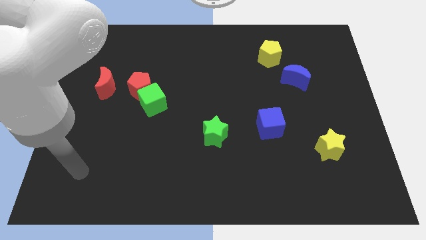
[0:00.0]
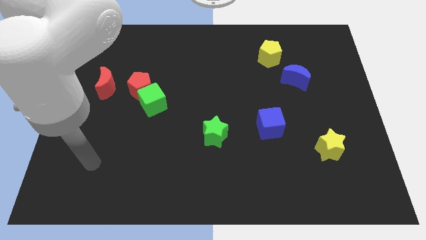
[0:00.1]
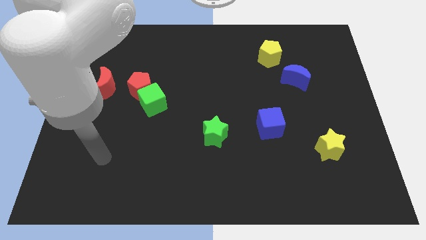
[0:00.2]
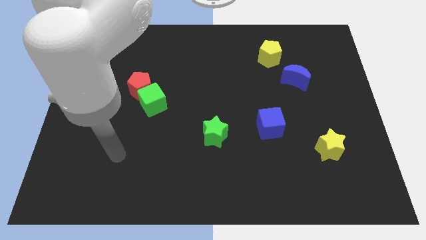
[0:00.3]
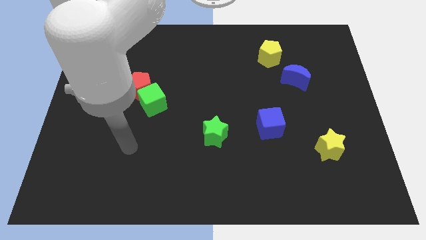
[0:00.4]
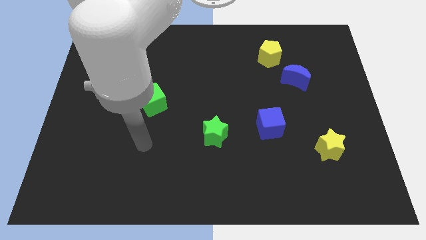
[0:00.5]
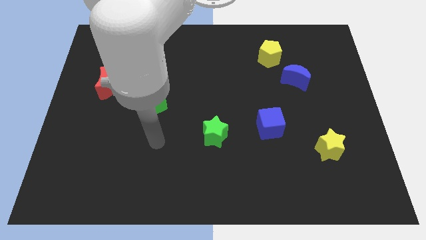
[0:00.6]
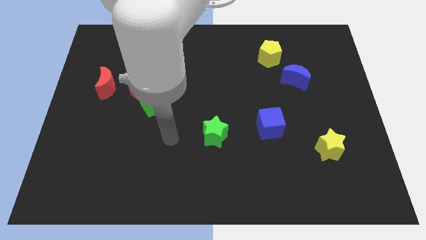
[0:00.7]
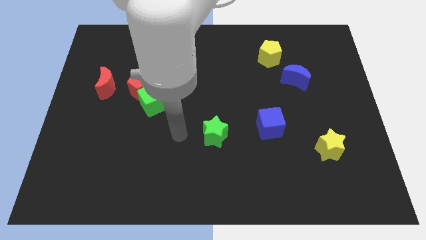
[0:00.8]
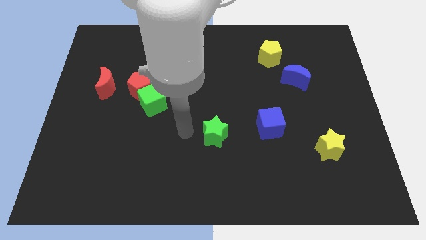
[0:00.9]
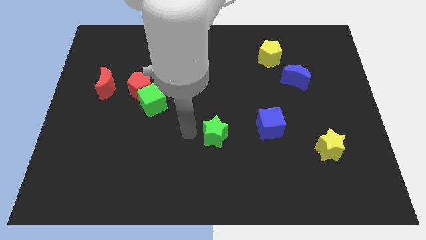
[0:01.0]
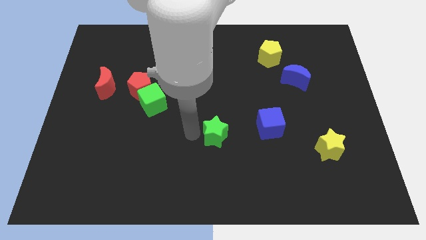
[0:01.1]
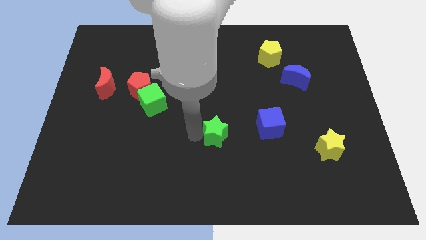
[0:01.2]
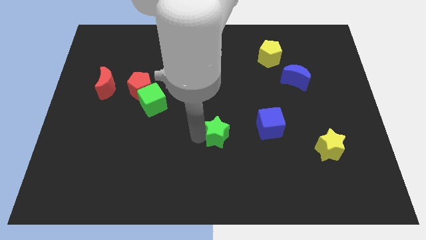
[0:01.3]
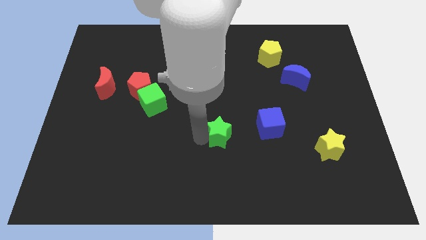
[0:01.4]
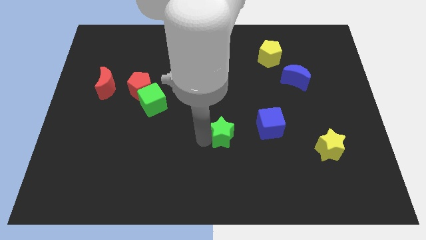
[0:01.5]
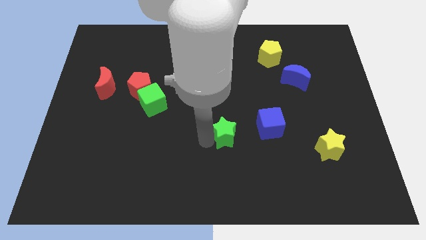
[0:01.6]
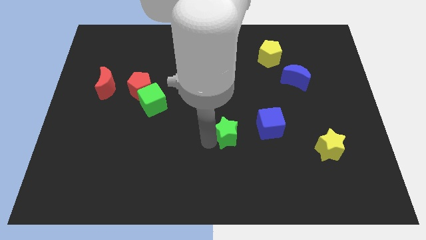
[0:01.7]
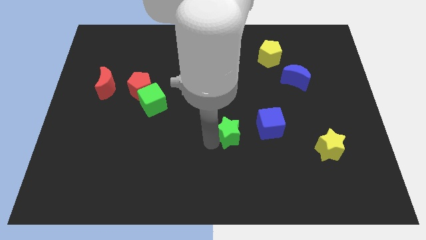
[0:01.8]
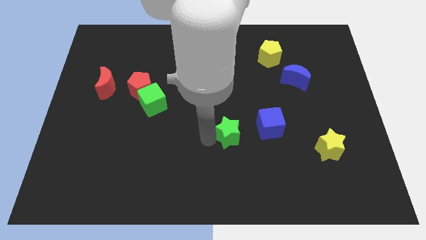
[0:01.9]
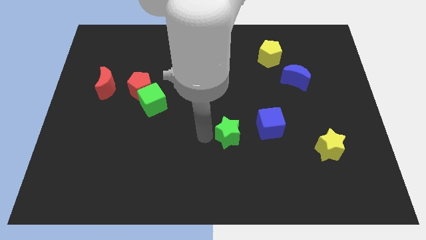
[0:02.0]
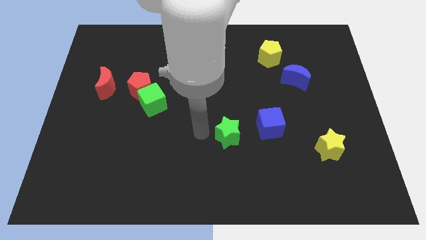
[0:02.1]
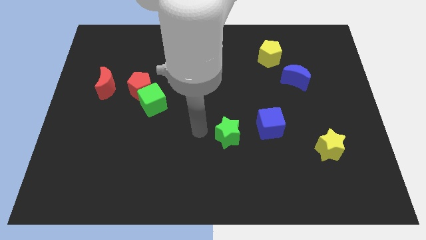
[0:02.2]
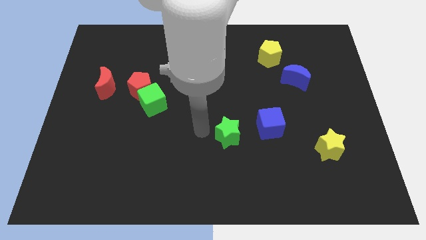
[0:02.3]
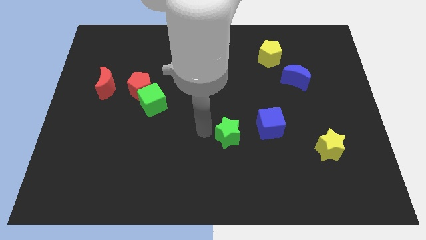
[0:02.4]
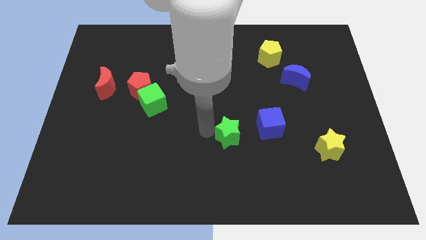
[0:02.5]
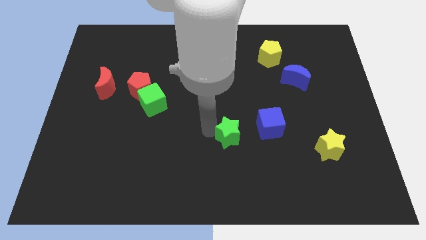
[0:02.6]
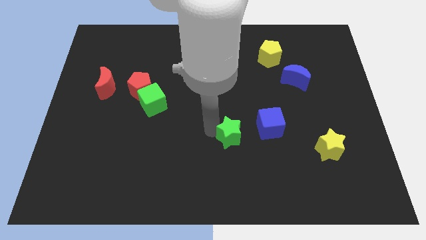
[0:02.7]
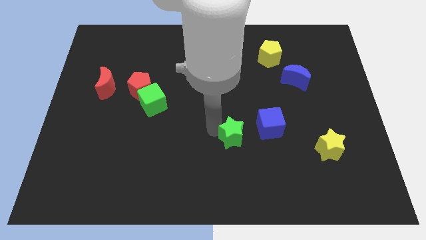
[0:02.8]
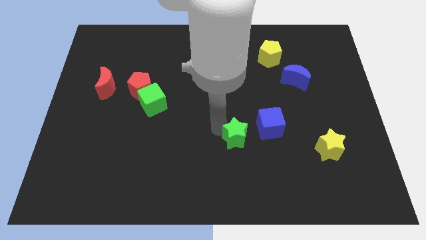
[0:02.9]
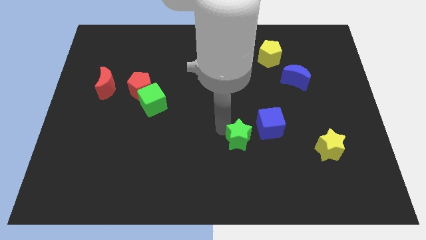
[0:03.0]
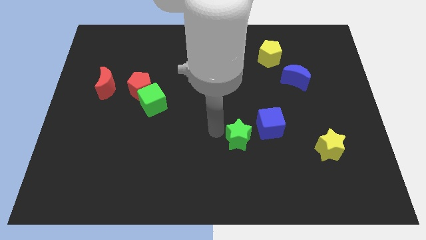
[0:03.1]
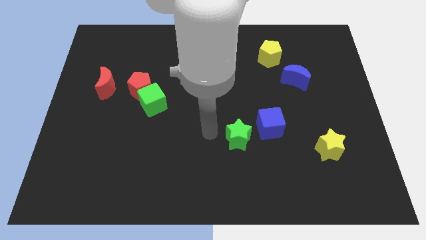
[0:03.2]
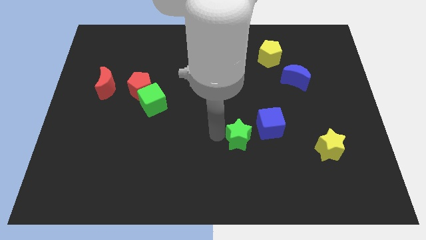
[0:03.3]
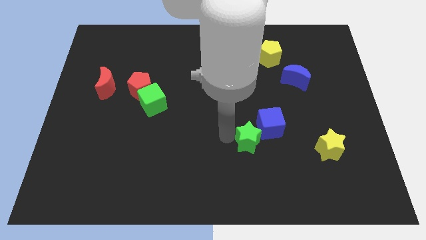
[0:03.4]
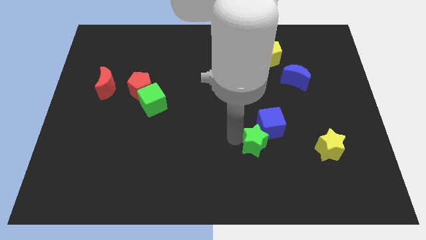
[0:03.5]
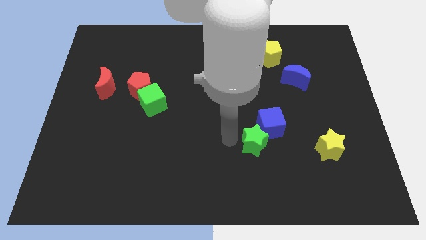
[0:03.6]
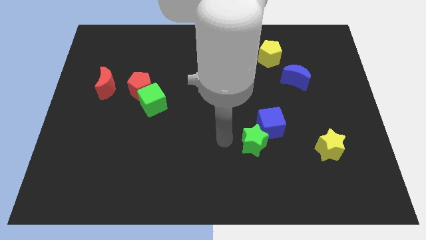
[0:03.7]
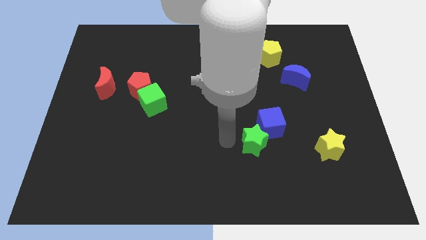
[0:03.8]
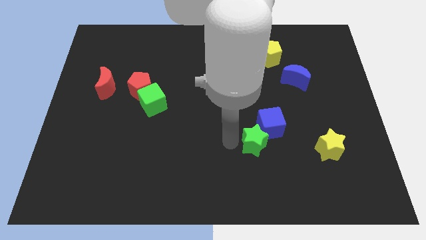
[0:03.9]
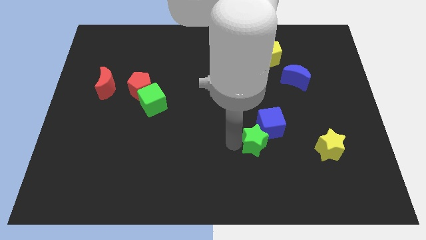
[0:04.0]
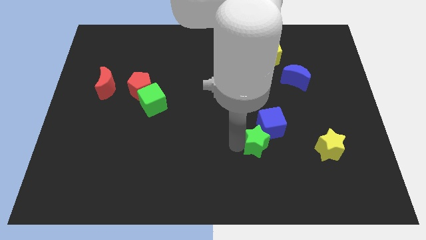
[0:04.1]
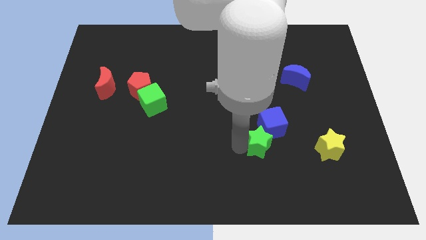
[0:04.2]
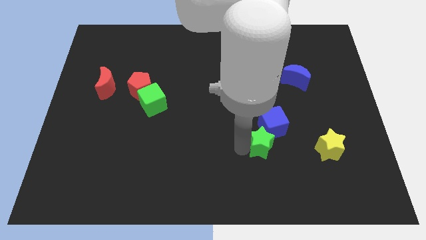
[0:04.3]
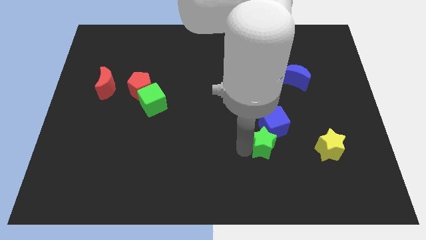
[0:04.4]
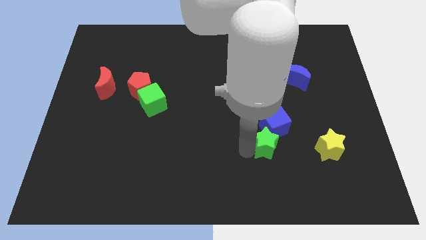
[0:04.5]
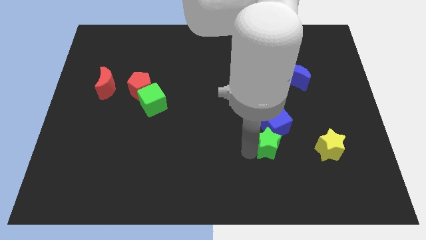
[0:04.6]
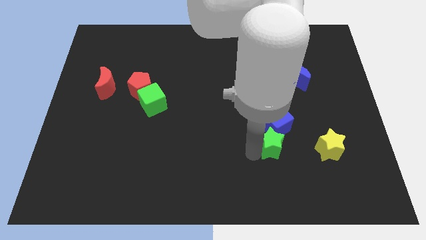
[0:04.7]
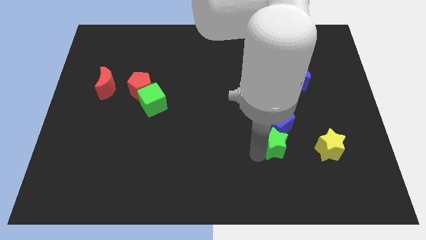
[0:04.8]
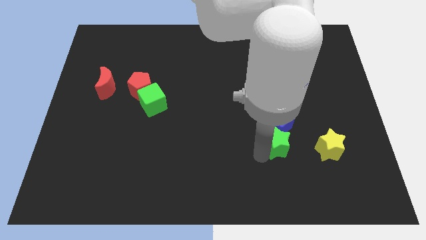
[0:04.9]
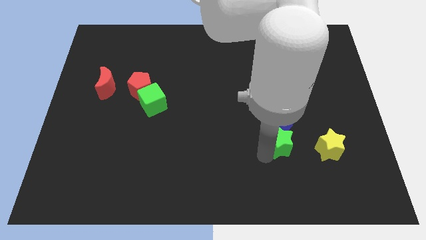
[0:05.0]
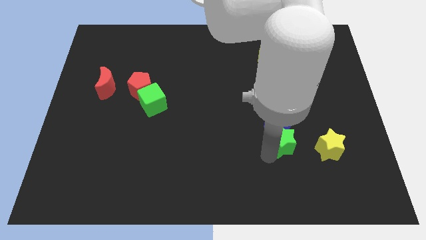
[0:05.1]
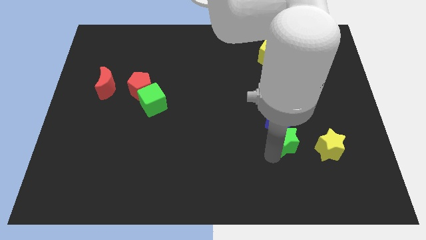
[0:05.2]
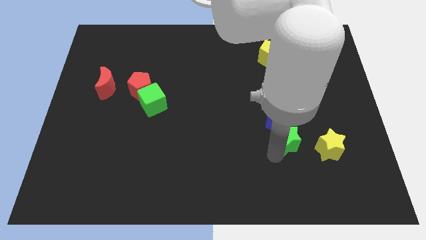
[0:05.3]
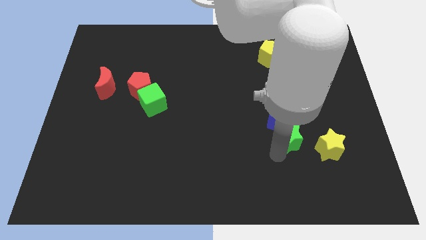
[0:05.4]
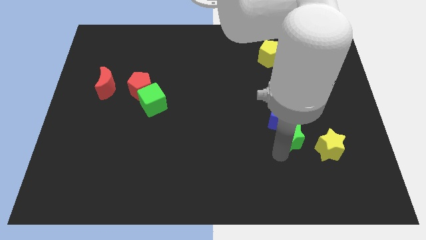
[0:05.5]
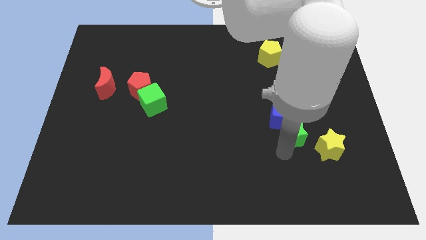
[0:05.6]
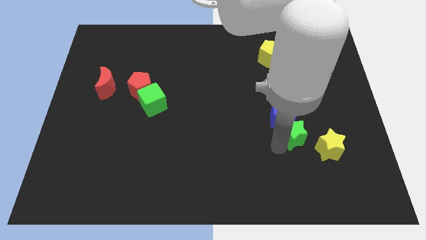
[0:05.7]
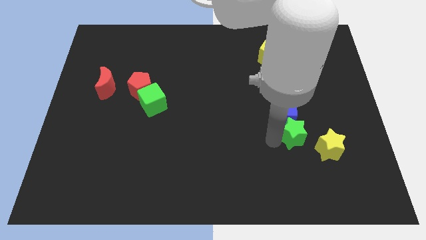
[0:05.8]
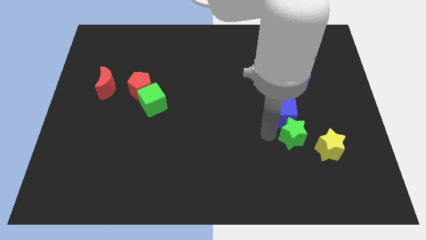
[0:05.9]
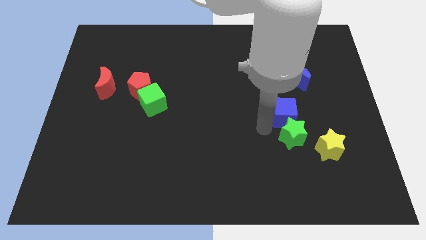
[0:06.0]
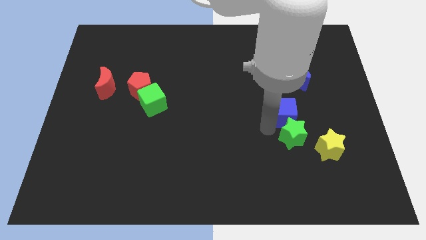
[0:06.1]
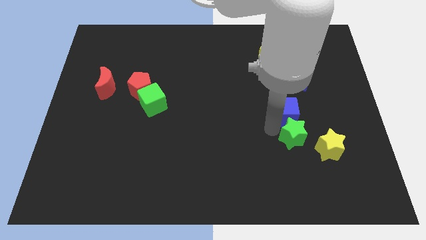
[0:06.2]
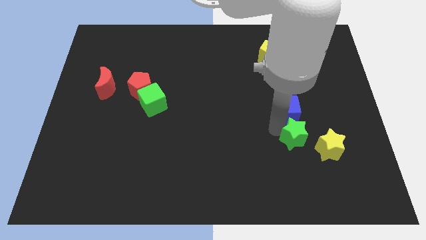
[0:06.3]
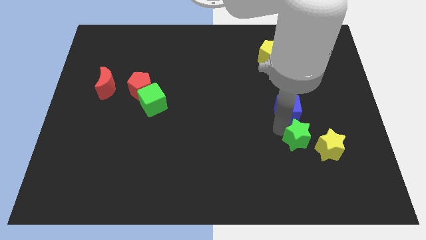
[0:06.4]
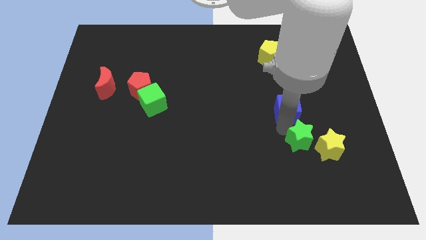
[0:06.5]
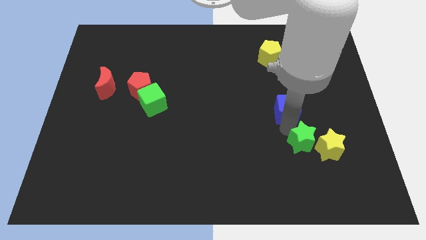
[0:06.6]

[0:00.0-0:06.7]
push the green star next to the yellow star

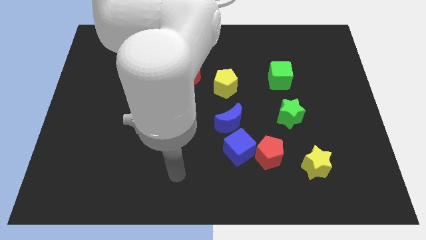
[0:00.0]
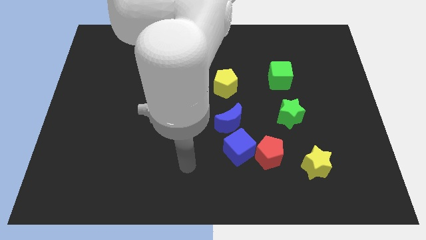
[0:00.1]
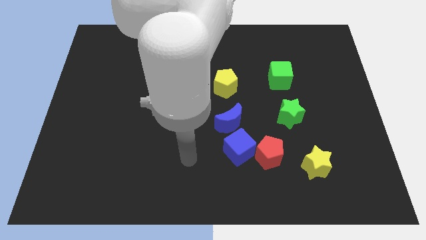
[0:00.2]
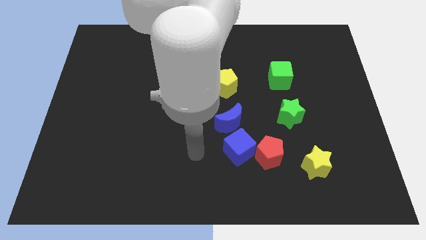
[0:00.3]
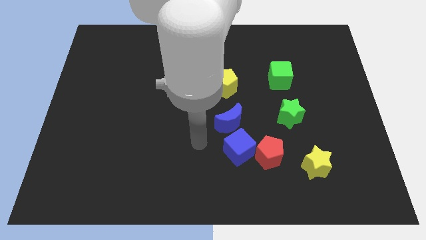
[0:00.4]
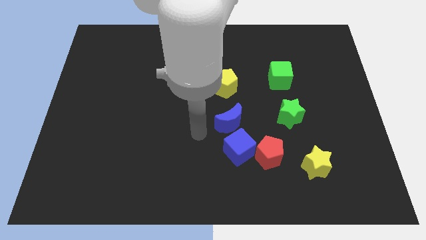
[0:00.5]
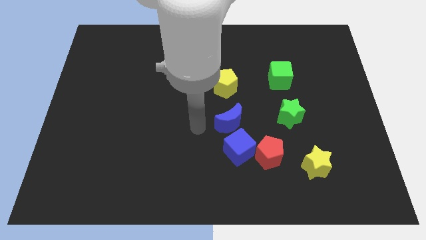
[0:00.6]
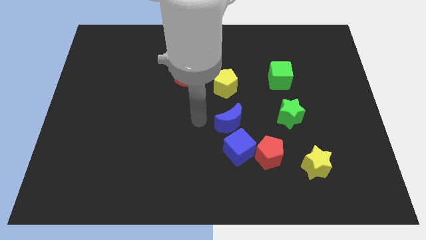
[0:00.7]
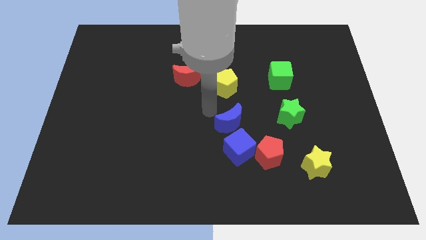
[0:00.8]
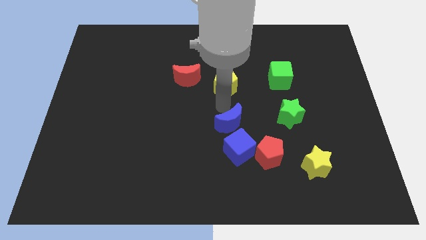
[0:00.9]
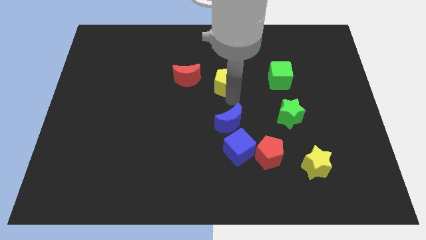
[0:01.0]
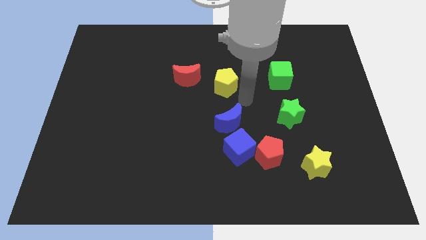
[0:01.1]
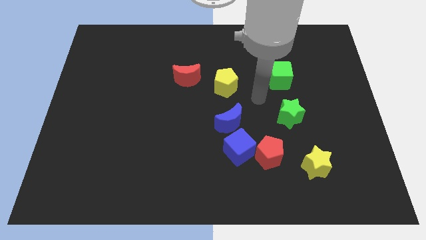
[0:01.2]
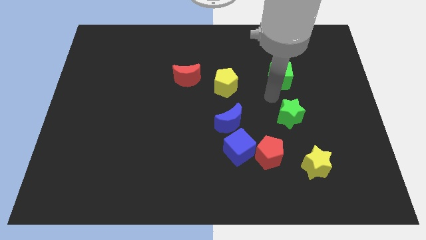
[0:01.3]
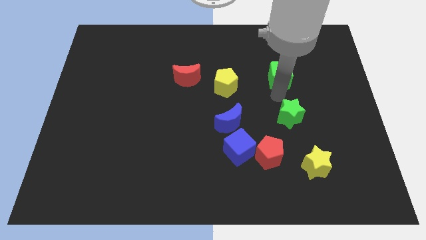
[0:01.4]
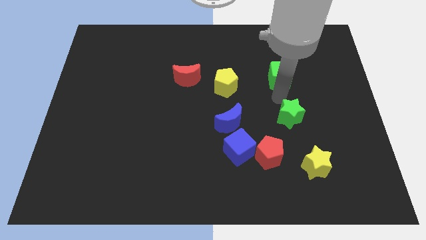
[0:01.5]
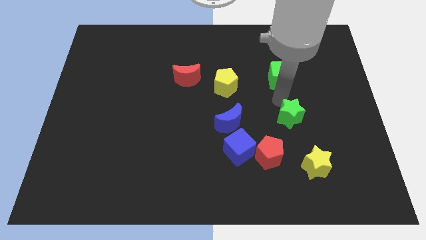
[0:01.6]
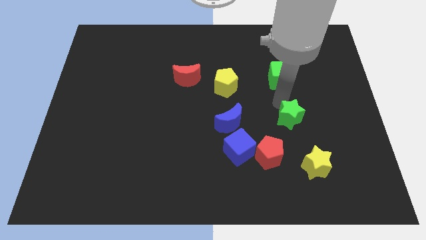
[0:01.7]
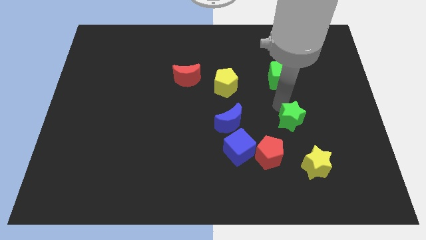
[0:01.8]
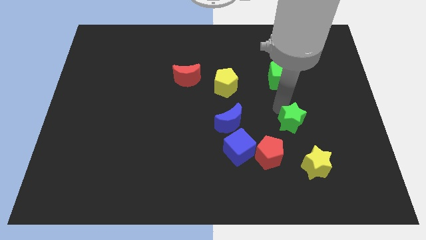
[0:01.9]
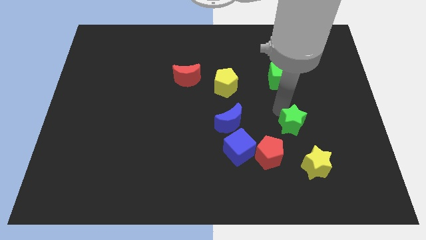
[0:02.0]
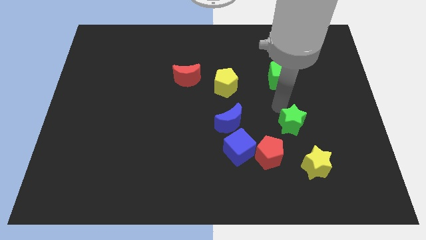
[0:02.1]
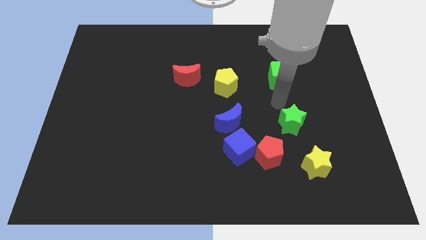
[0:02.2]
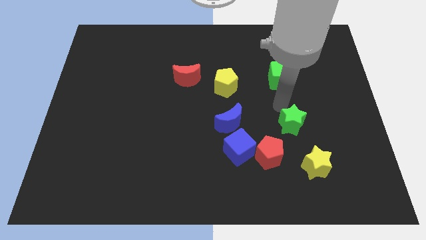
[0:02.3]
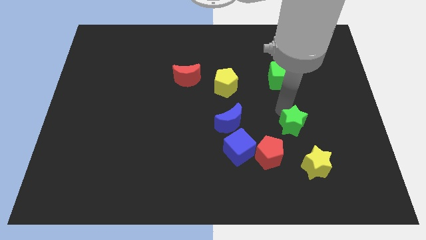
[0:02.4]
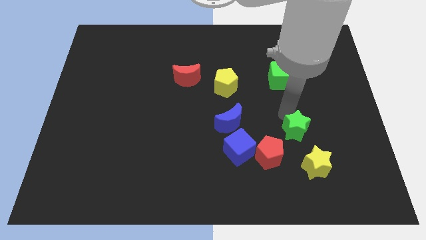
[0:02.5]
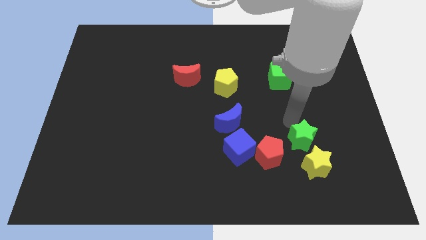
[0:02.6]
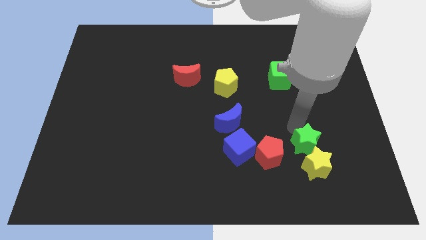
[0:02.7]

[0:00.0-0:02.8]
push the green star close to the yellow star
